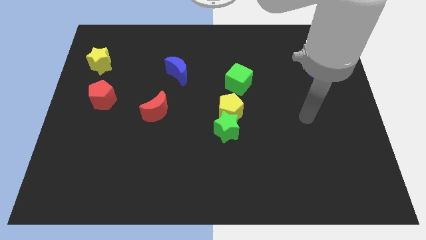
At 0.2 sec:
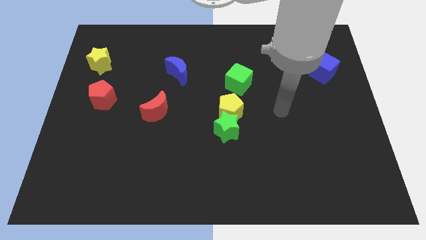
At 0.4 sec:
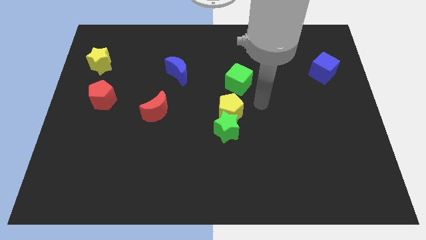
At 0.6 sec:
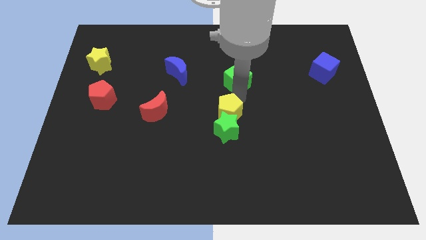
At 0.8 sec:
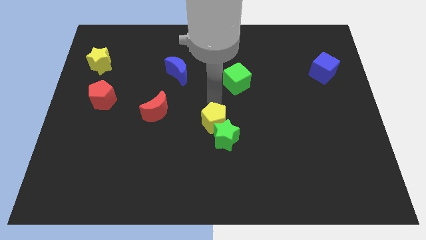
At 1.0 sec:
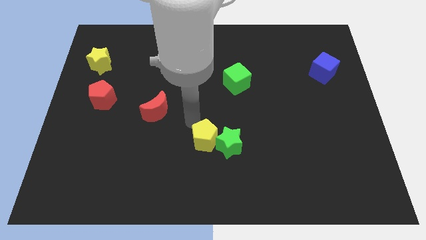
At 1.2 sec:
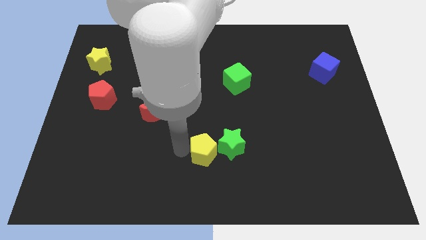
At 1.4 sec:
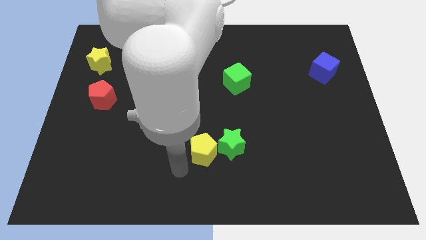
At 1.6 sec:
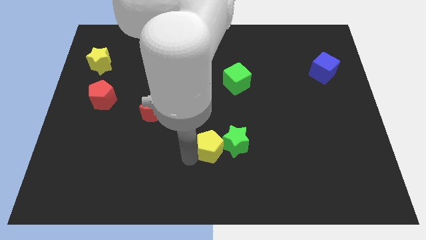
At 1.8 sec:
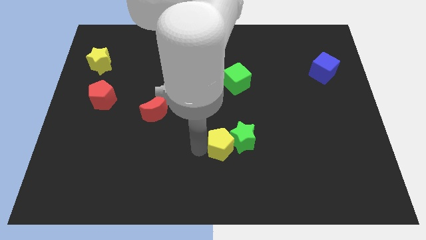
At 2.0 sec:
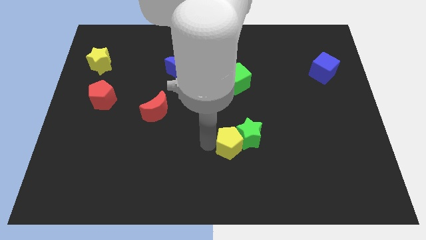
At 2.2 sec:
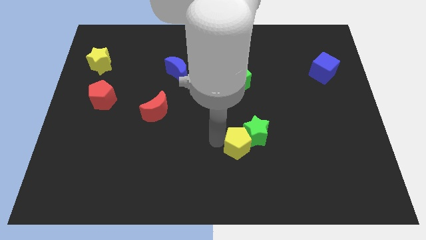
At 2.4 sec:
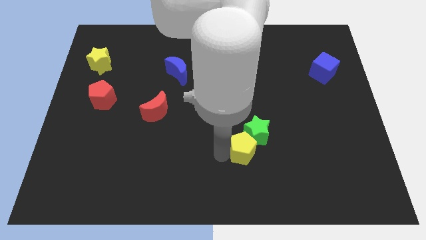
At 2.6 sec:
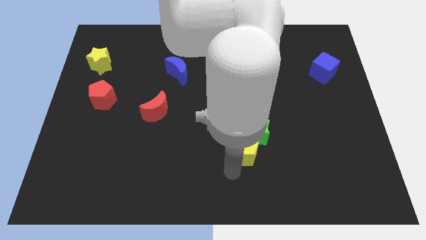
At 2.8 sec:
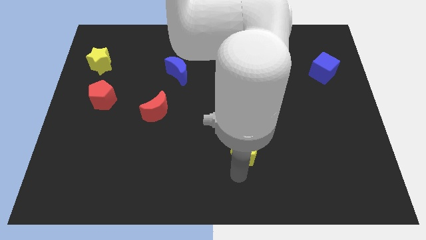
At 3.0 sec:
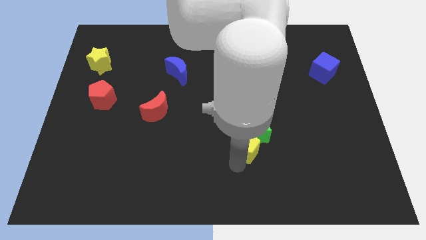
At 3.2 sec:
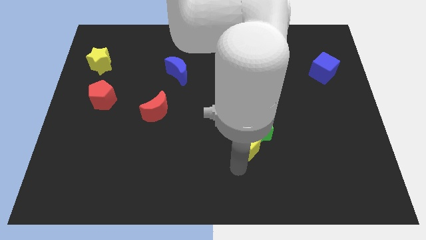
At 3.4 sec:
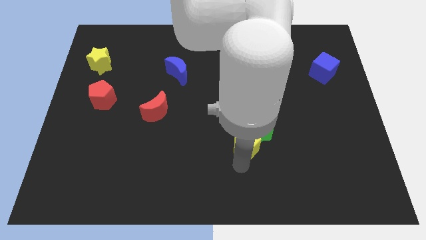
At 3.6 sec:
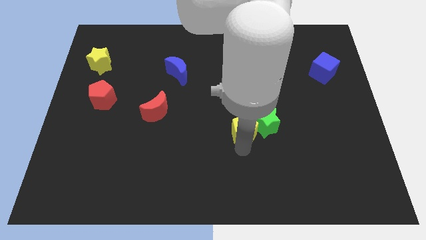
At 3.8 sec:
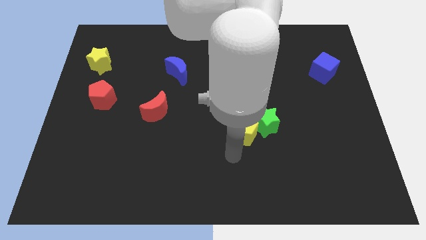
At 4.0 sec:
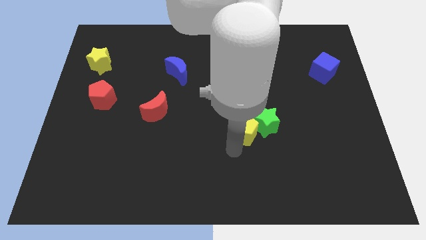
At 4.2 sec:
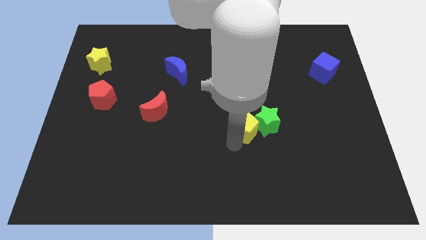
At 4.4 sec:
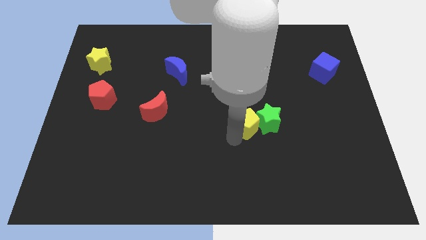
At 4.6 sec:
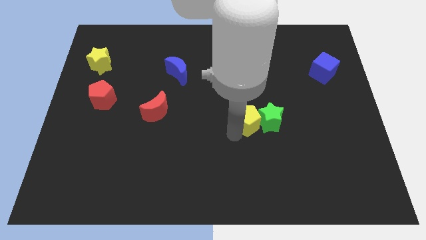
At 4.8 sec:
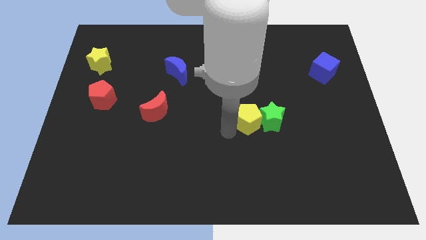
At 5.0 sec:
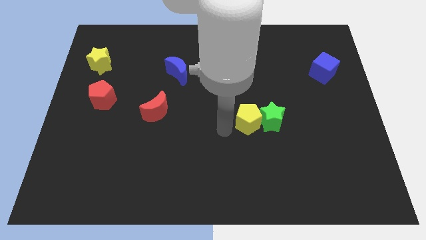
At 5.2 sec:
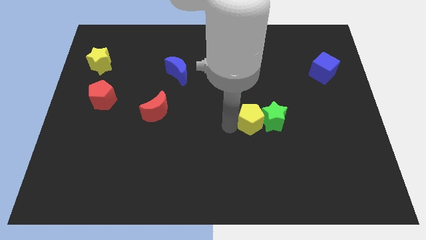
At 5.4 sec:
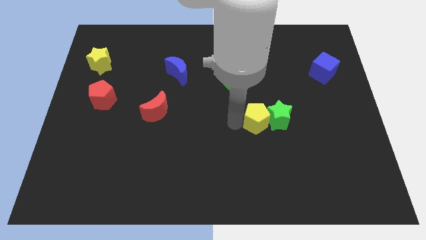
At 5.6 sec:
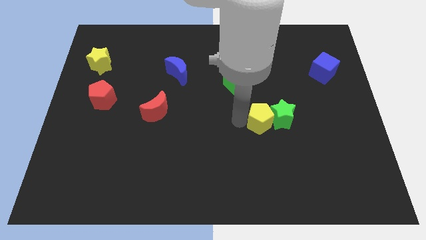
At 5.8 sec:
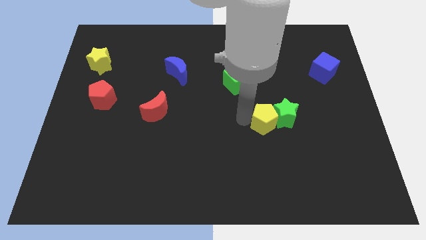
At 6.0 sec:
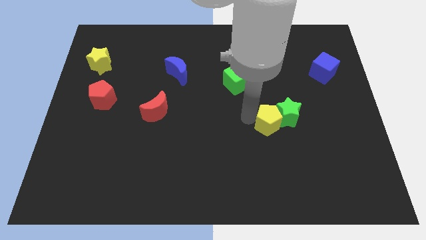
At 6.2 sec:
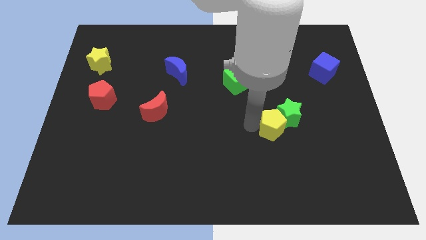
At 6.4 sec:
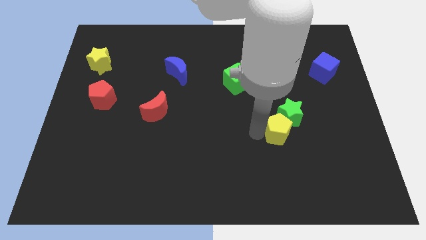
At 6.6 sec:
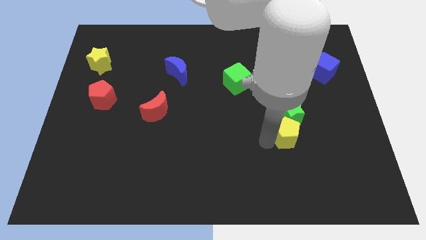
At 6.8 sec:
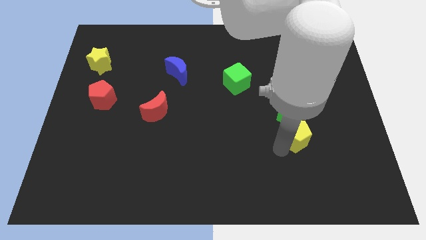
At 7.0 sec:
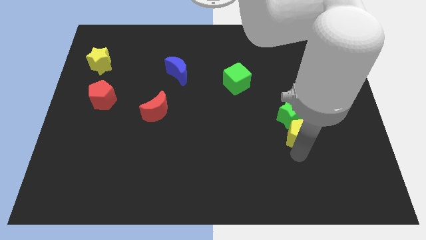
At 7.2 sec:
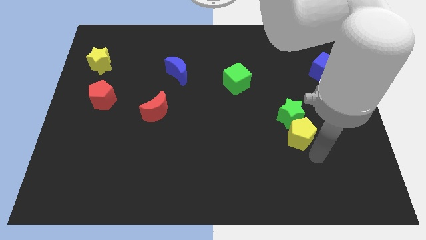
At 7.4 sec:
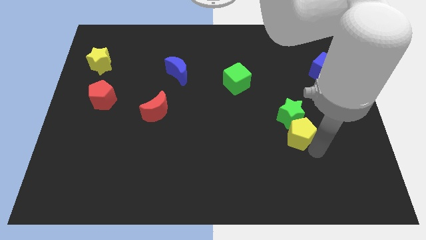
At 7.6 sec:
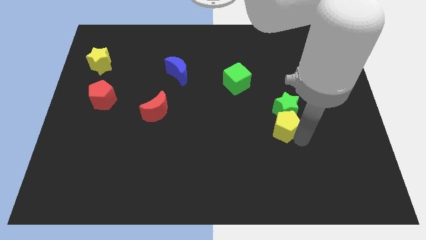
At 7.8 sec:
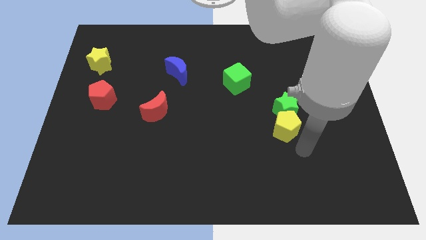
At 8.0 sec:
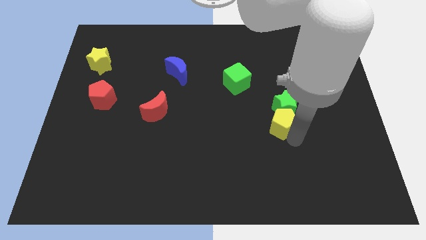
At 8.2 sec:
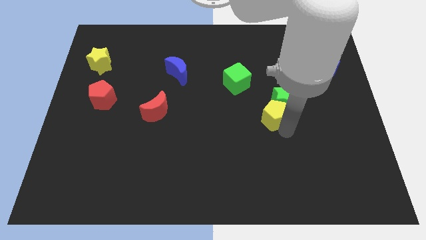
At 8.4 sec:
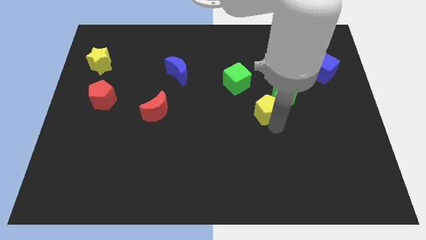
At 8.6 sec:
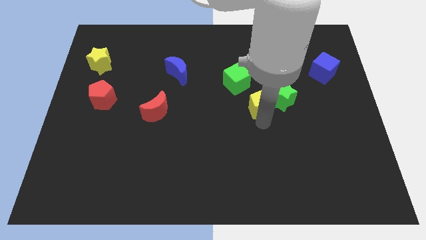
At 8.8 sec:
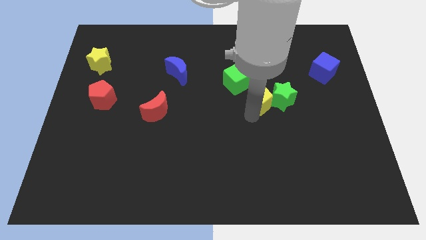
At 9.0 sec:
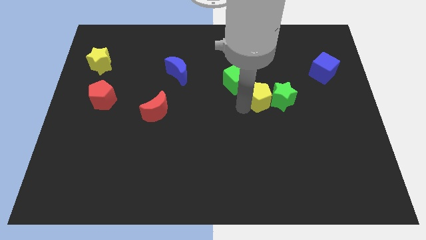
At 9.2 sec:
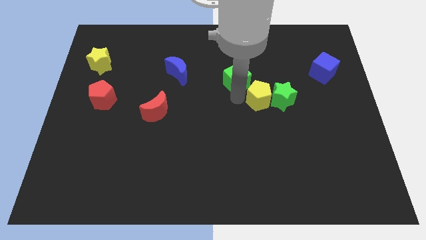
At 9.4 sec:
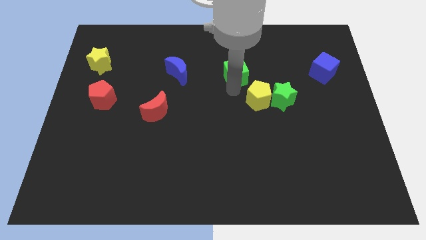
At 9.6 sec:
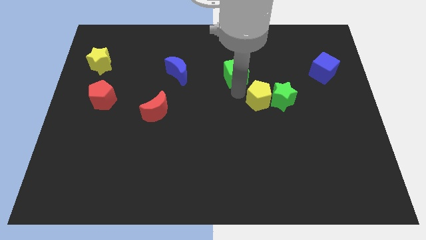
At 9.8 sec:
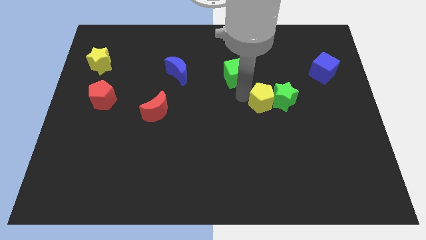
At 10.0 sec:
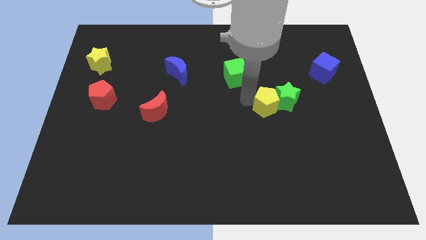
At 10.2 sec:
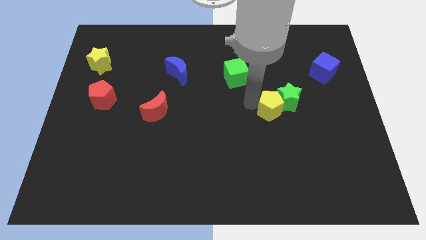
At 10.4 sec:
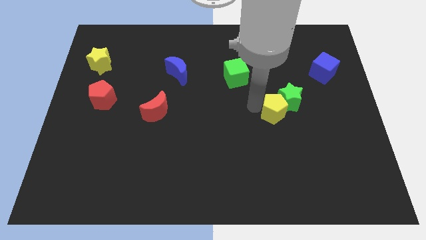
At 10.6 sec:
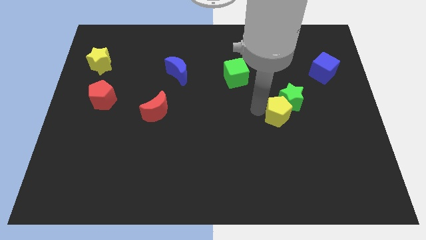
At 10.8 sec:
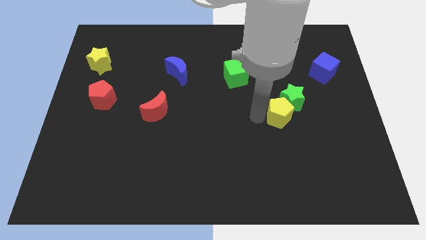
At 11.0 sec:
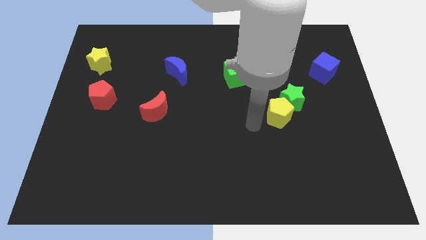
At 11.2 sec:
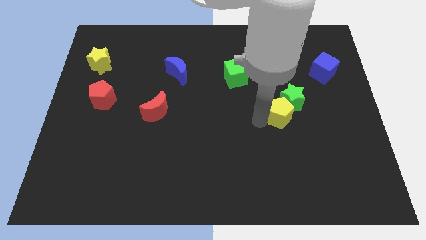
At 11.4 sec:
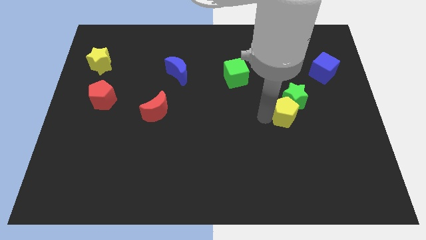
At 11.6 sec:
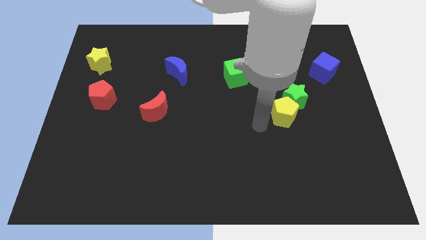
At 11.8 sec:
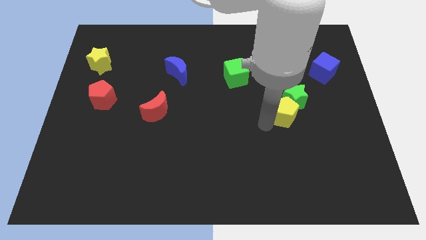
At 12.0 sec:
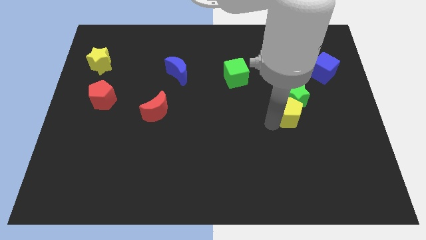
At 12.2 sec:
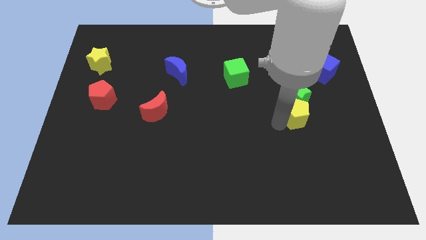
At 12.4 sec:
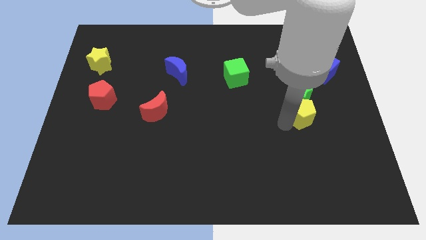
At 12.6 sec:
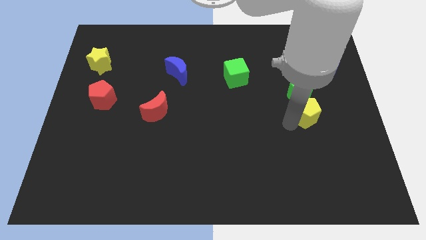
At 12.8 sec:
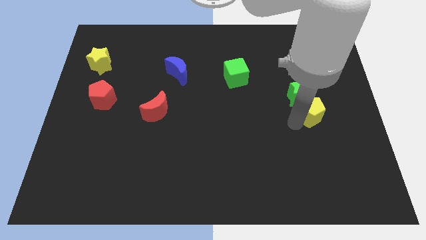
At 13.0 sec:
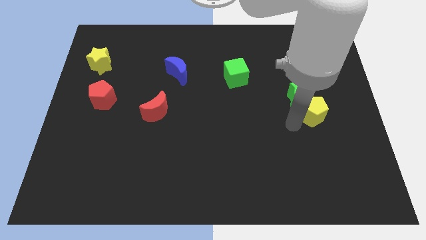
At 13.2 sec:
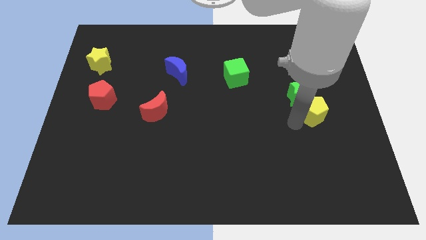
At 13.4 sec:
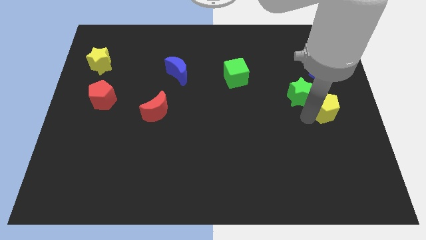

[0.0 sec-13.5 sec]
move the yellow pentagon to the right side of the board
